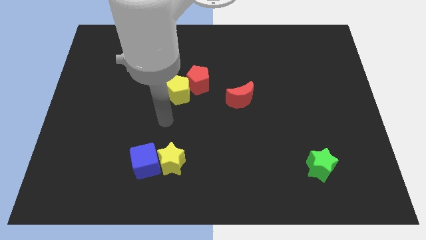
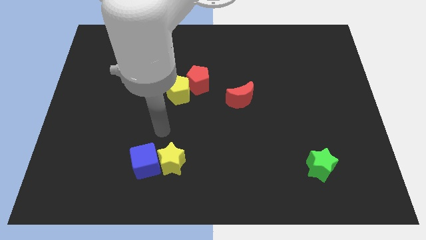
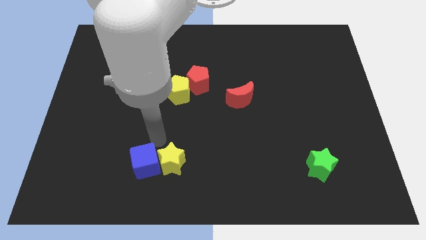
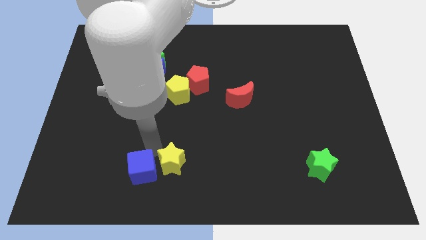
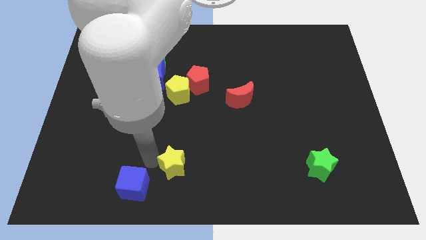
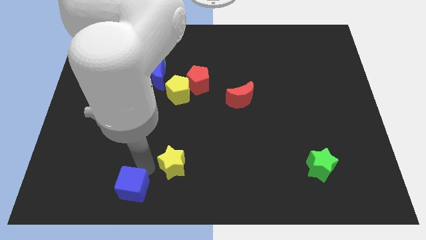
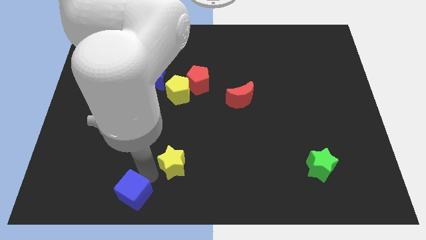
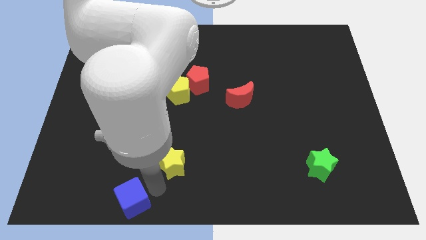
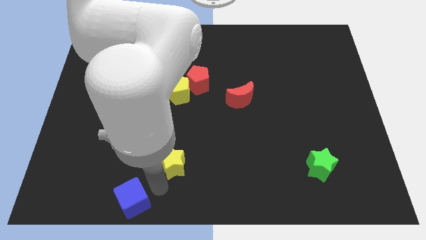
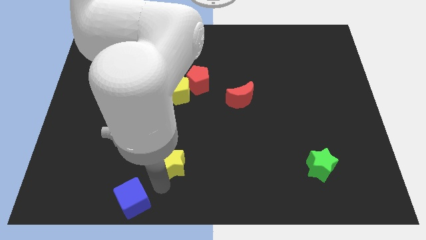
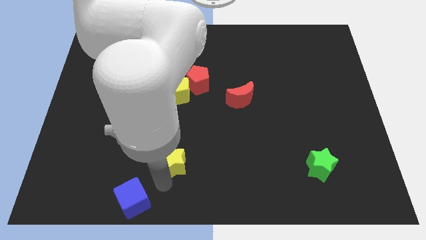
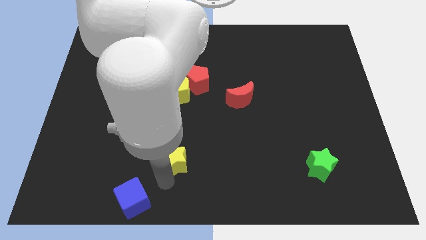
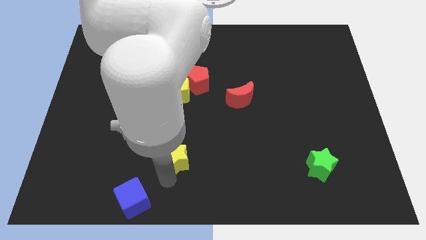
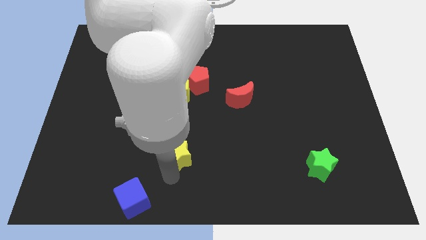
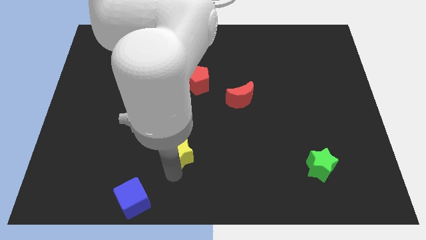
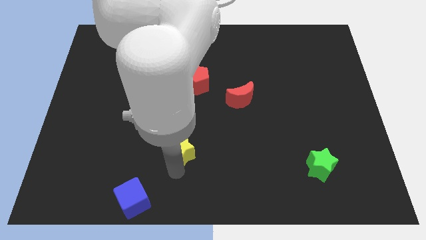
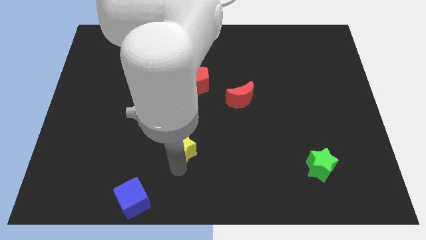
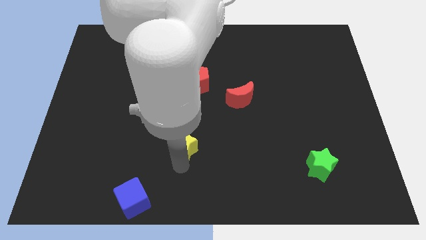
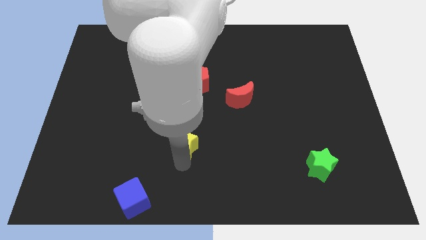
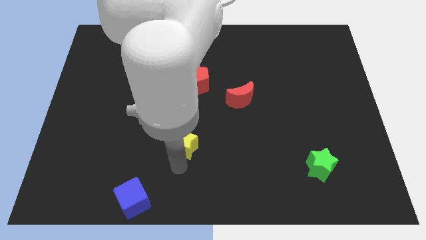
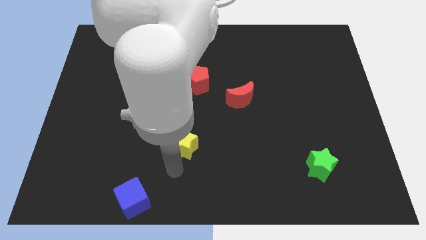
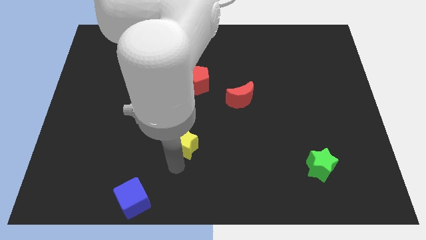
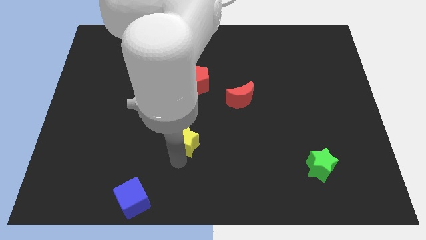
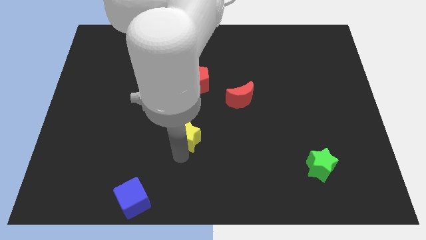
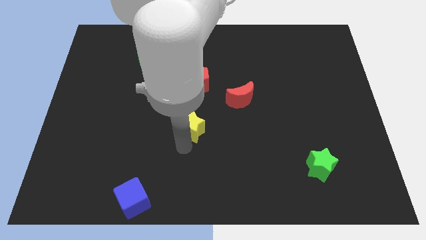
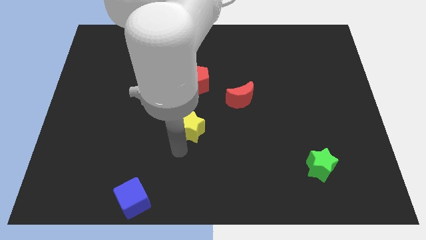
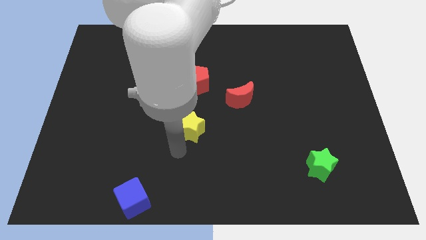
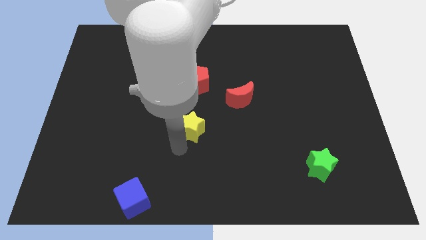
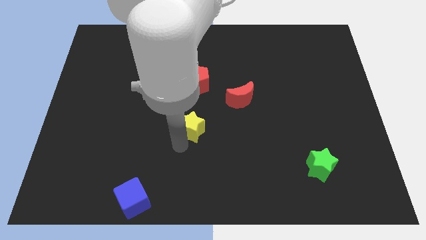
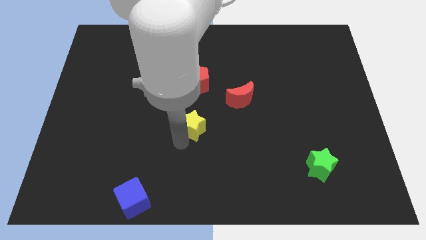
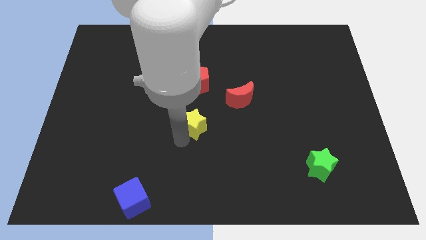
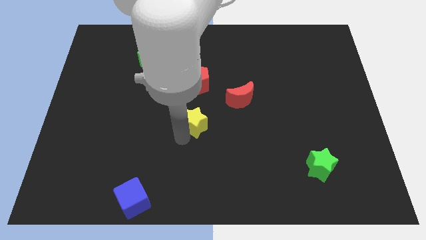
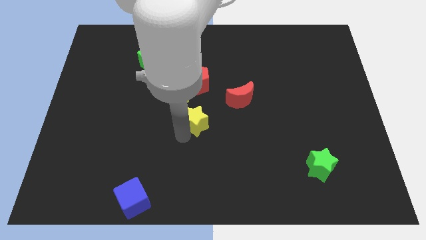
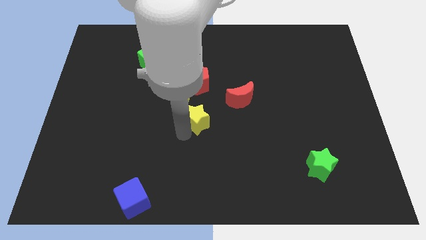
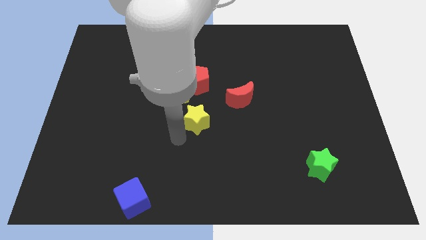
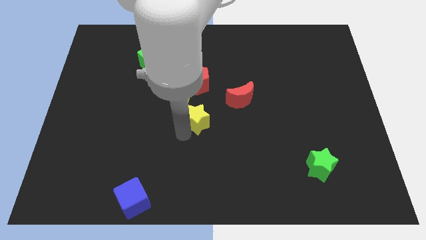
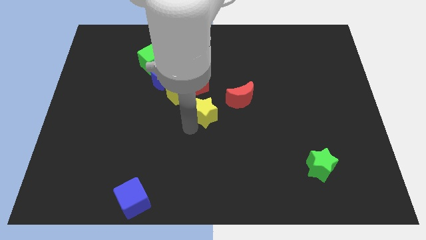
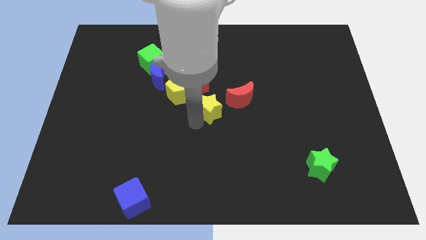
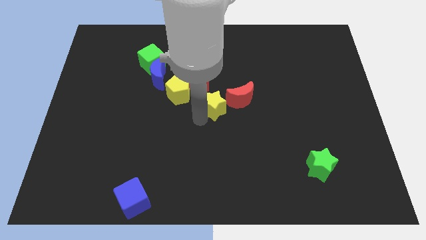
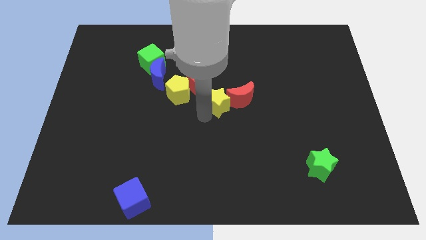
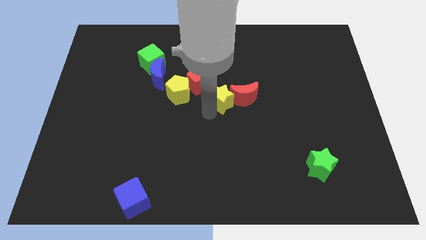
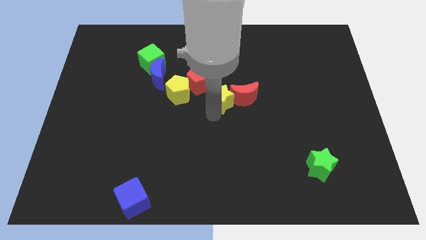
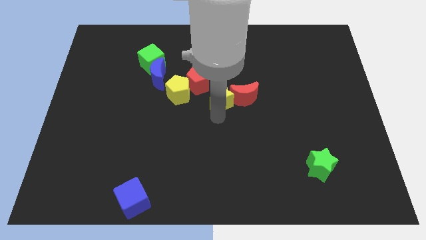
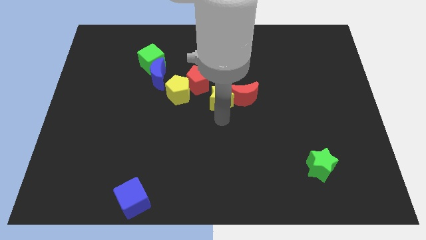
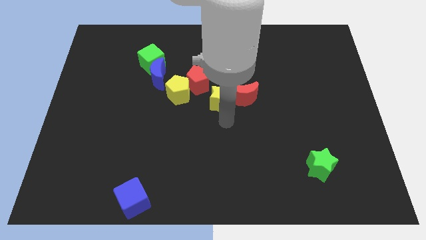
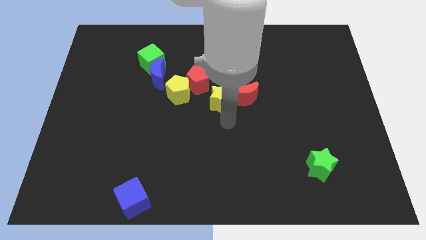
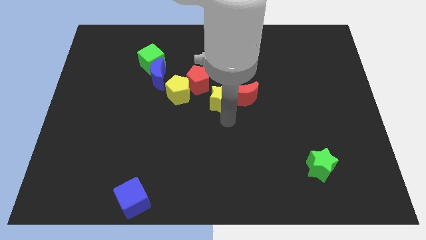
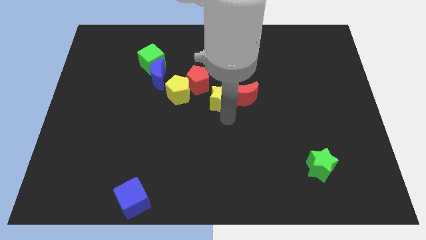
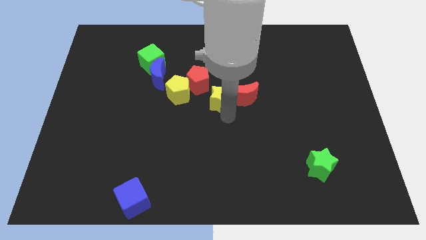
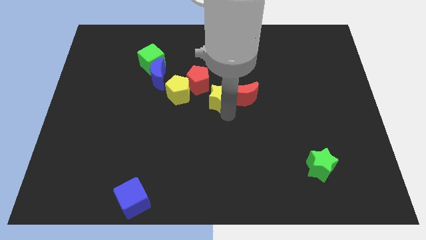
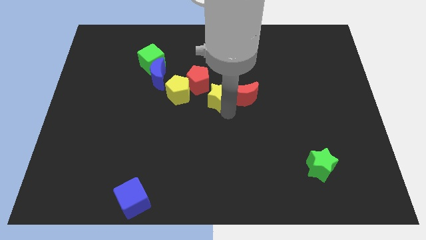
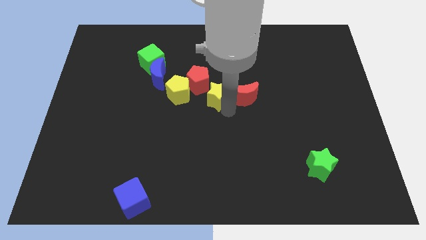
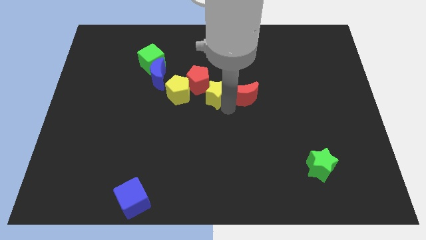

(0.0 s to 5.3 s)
put the yellow star close to the red pentagon

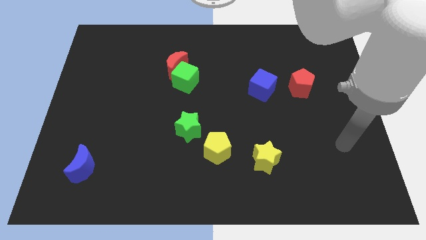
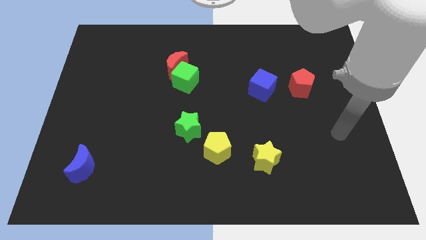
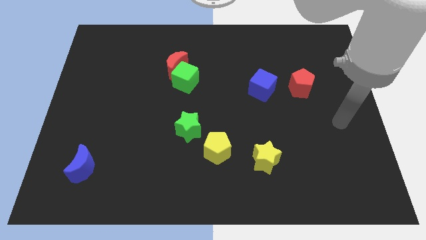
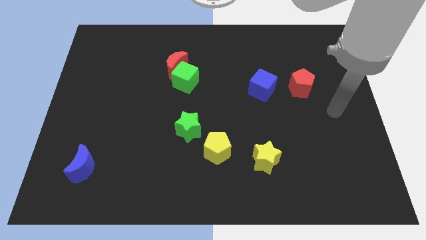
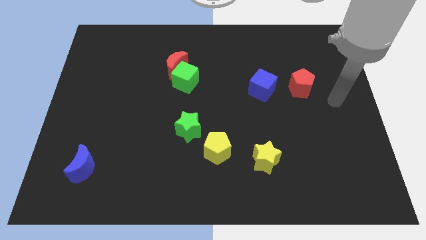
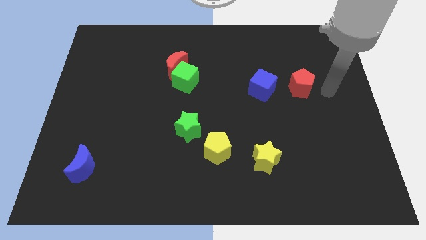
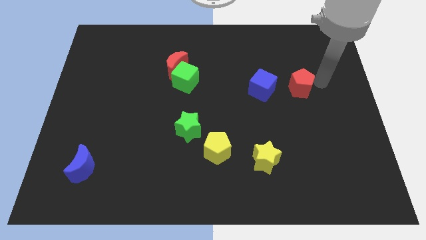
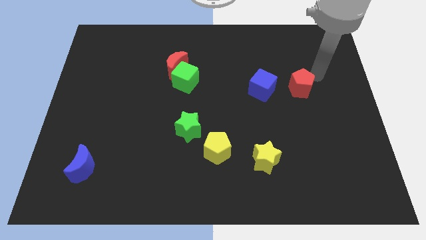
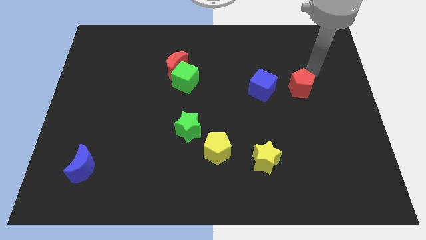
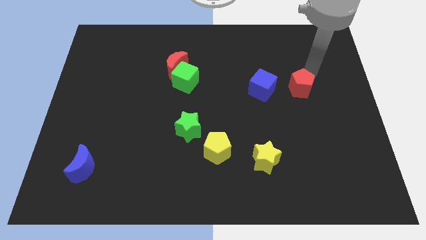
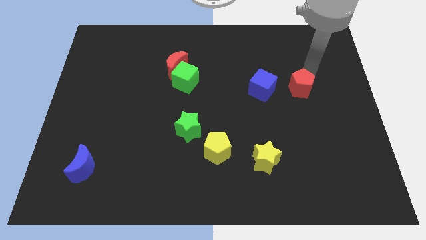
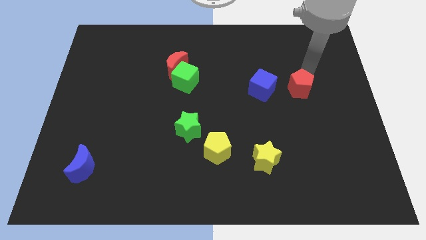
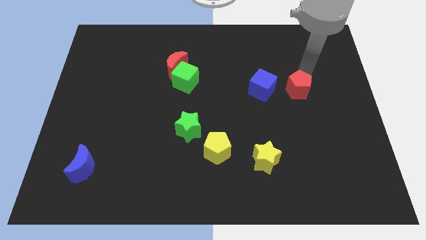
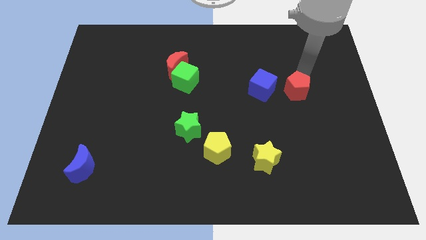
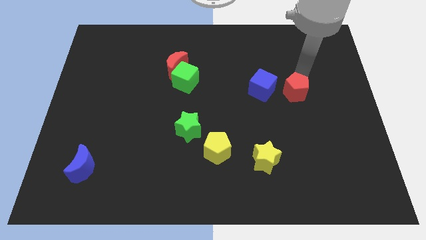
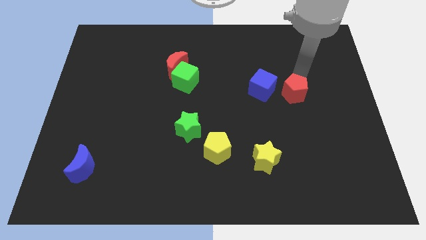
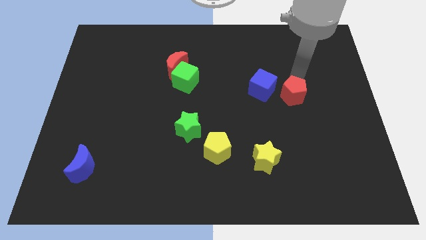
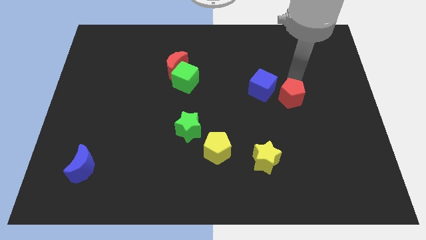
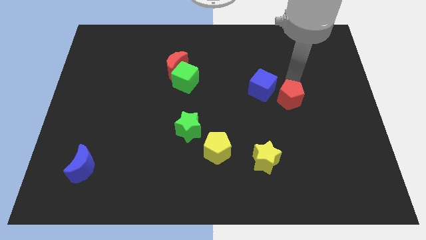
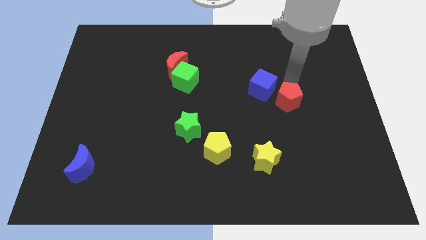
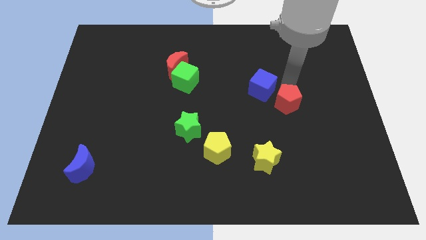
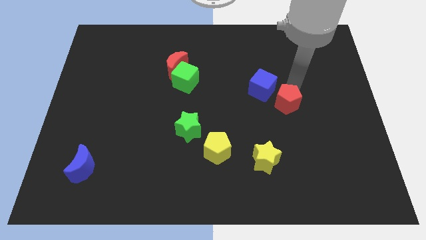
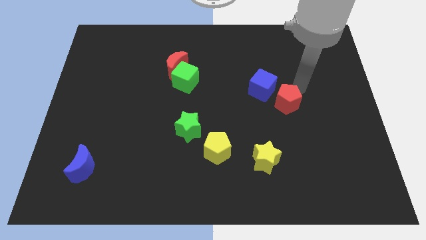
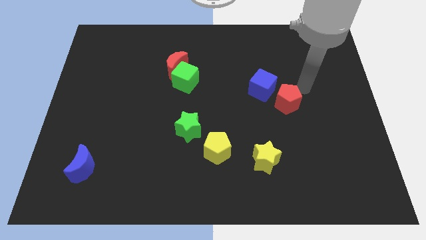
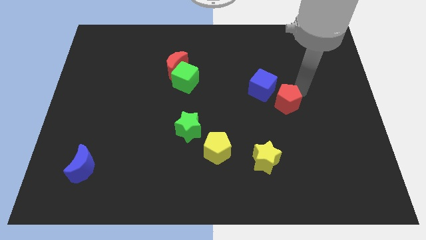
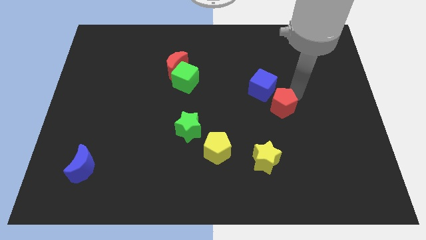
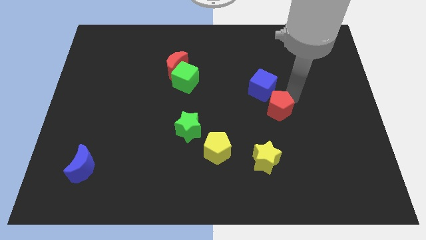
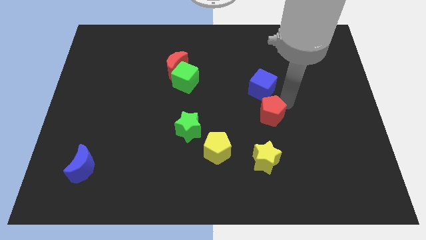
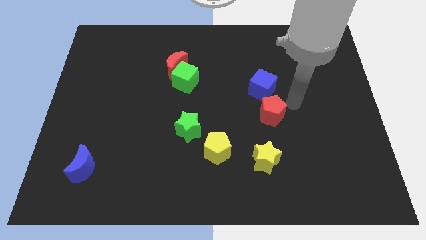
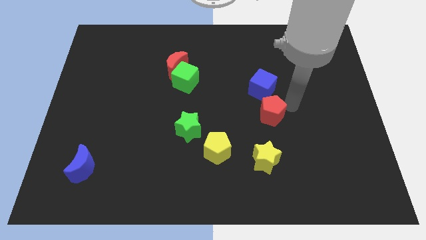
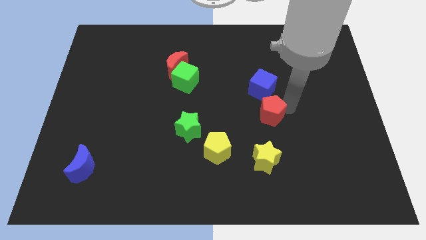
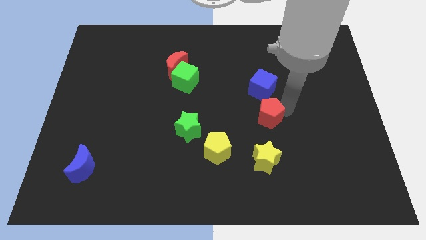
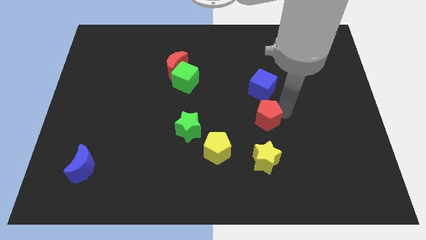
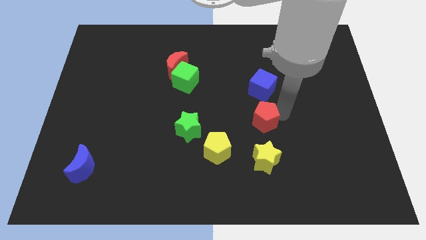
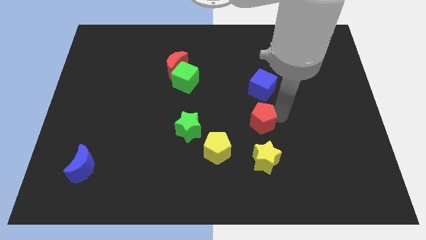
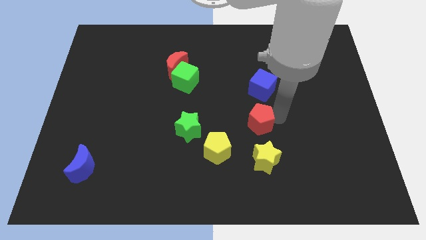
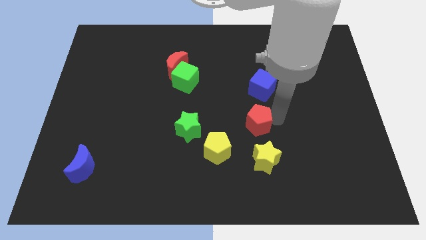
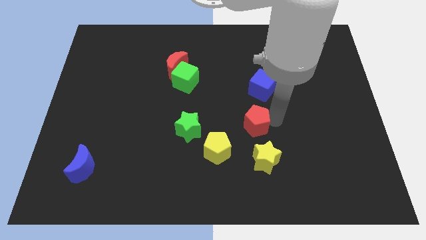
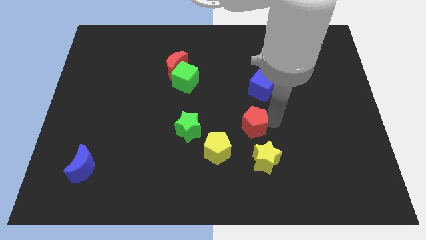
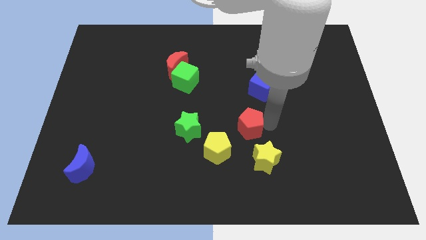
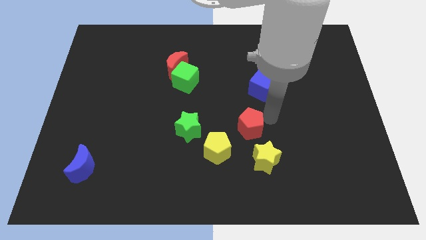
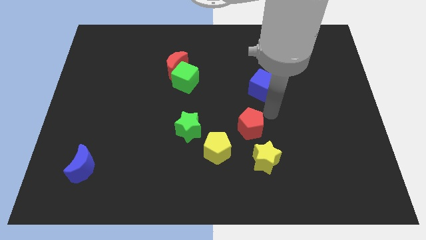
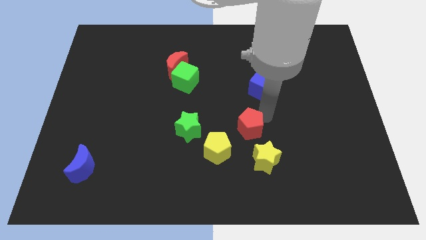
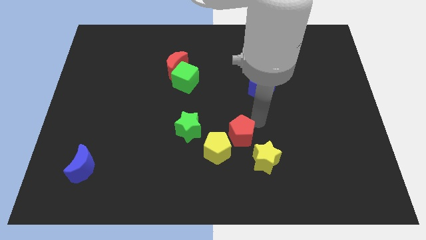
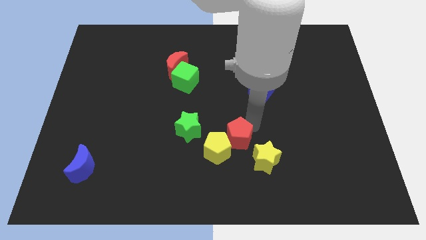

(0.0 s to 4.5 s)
slide the red pentagon close to the yellow pentagon
